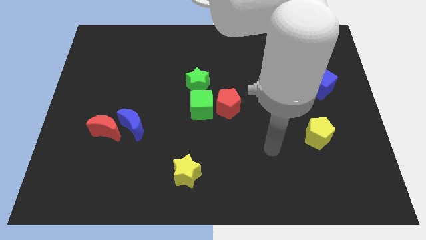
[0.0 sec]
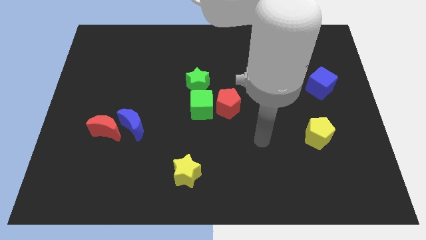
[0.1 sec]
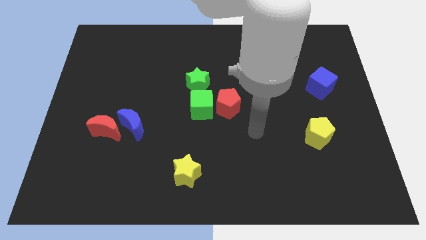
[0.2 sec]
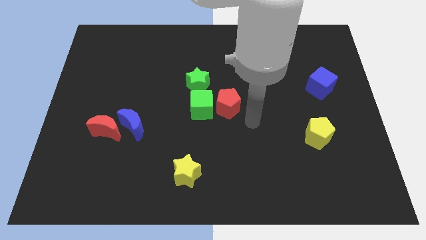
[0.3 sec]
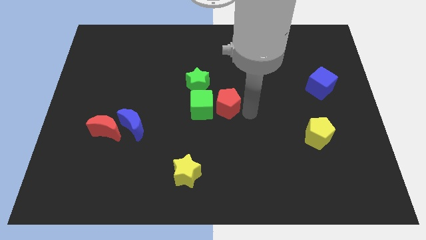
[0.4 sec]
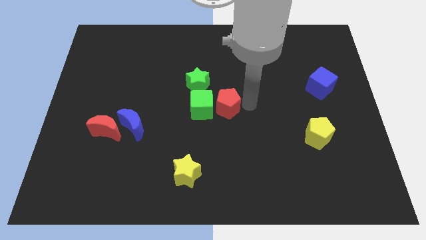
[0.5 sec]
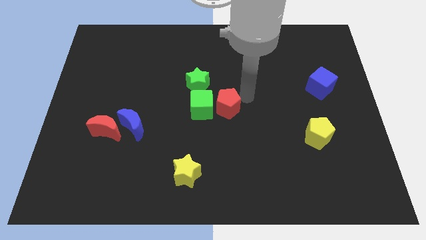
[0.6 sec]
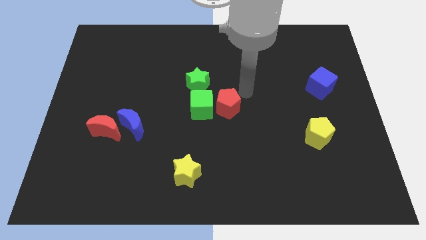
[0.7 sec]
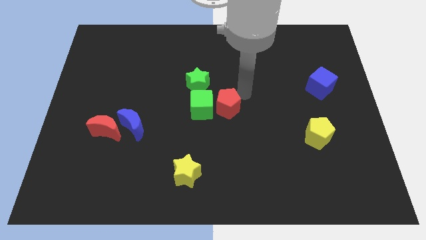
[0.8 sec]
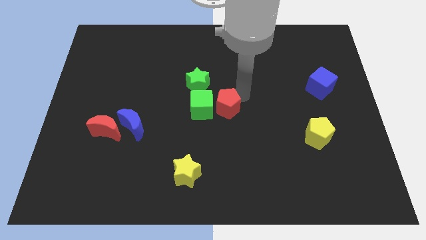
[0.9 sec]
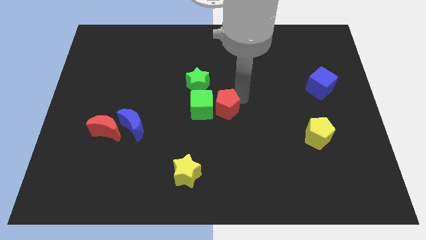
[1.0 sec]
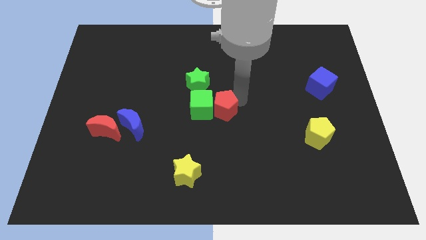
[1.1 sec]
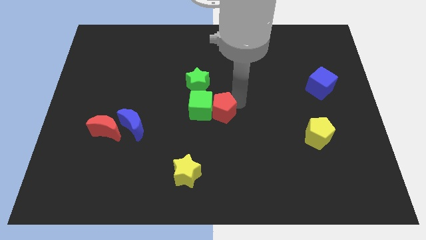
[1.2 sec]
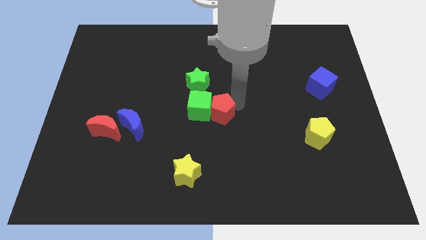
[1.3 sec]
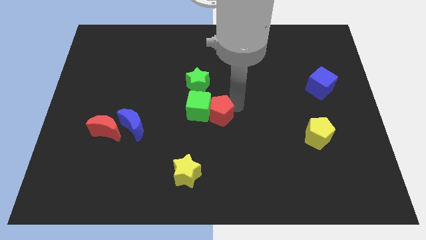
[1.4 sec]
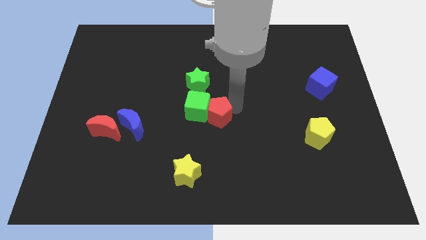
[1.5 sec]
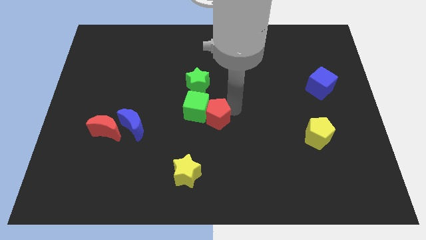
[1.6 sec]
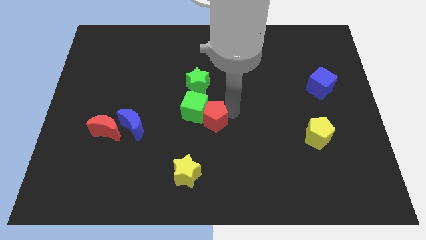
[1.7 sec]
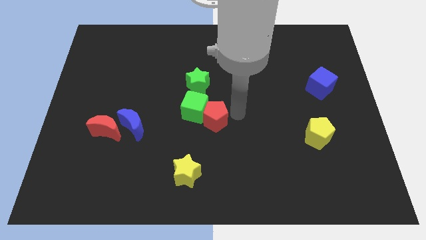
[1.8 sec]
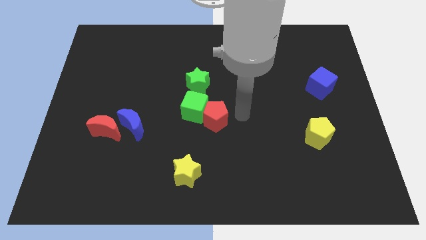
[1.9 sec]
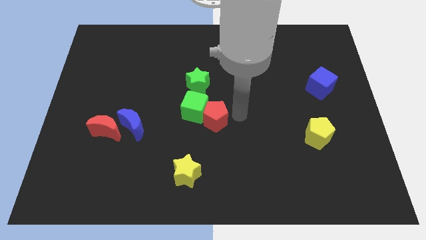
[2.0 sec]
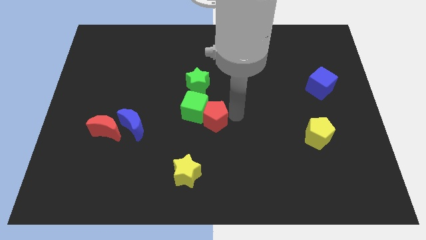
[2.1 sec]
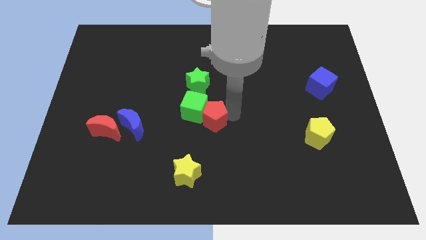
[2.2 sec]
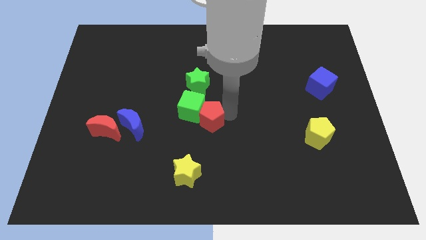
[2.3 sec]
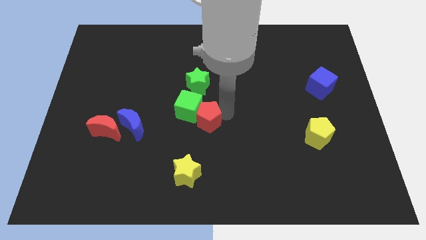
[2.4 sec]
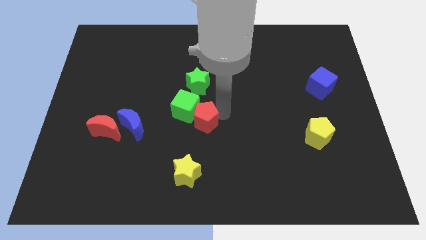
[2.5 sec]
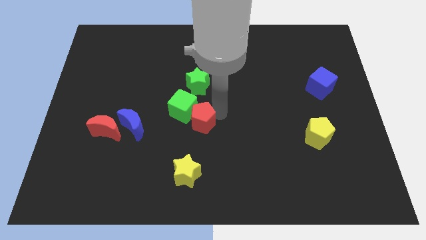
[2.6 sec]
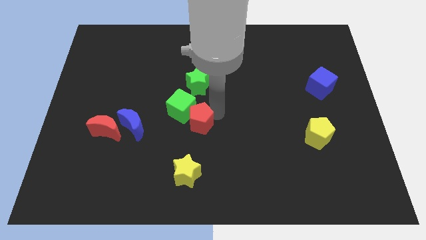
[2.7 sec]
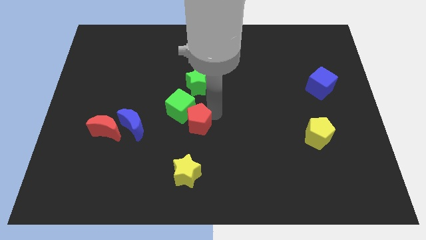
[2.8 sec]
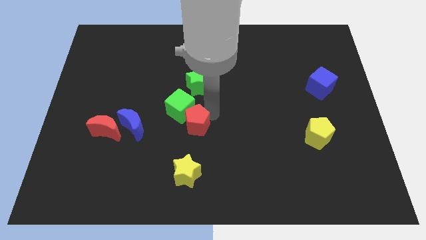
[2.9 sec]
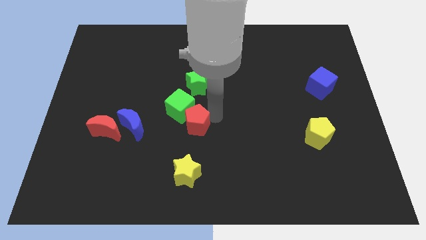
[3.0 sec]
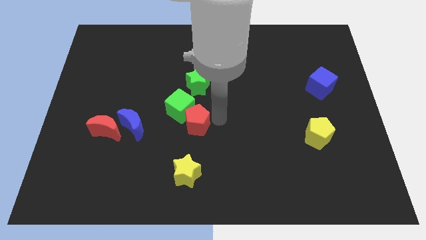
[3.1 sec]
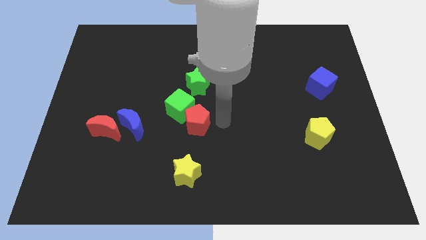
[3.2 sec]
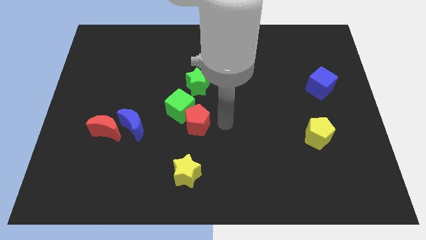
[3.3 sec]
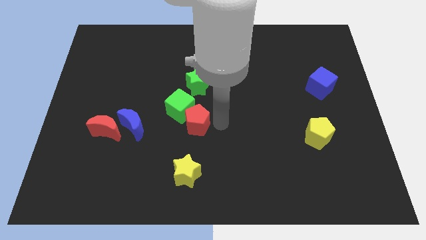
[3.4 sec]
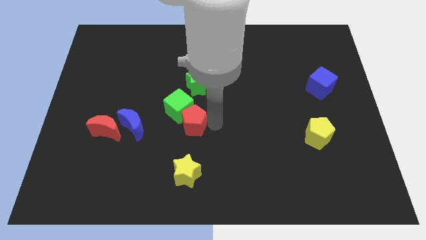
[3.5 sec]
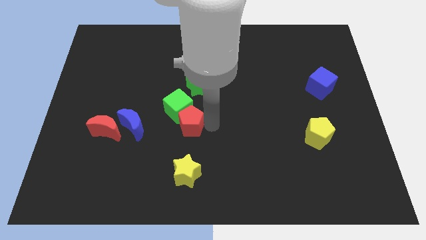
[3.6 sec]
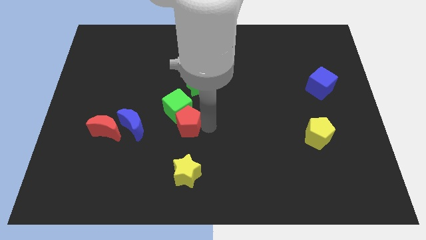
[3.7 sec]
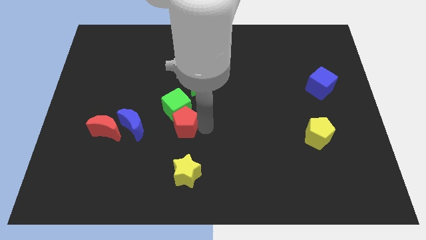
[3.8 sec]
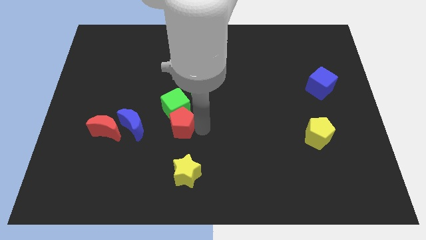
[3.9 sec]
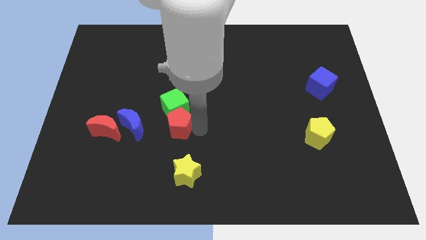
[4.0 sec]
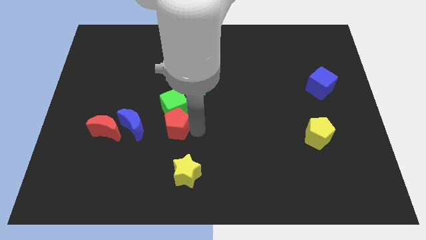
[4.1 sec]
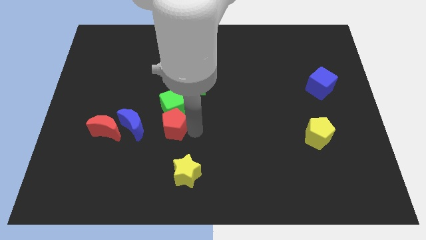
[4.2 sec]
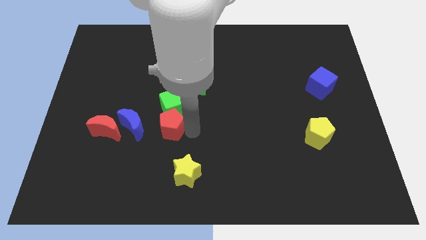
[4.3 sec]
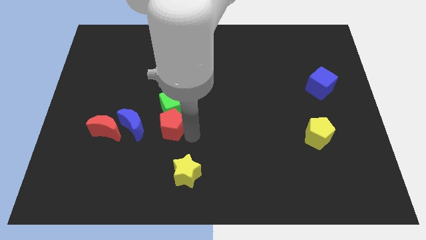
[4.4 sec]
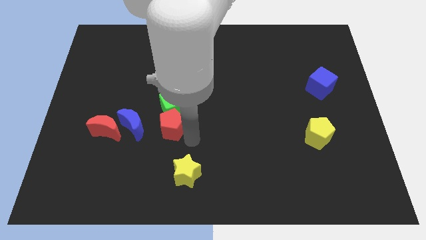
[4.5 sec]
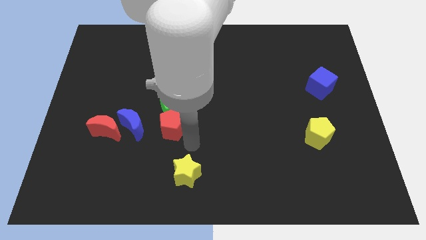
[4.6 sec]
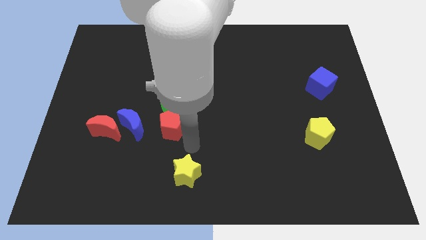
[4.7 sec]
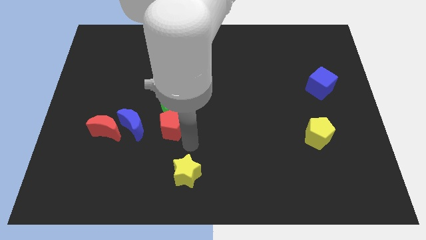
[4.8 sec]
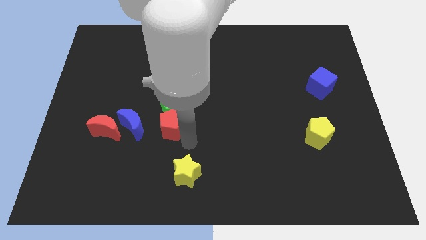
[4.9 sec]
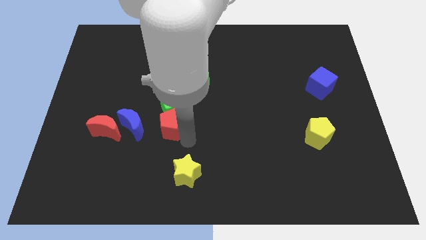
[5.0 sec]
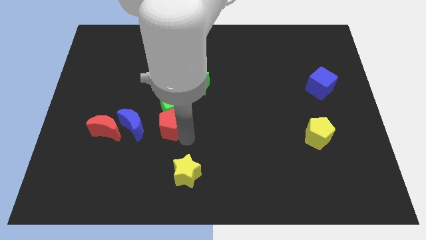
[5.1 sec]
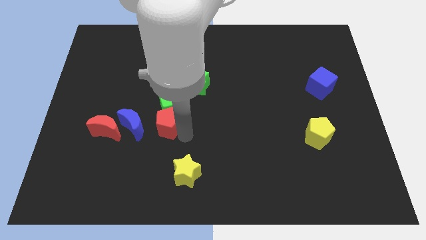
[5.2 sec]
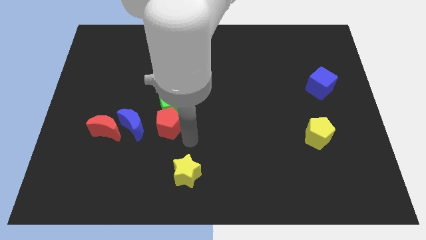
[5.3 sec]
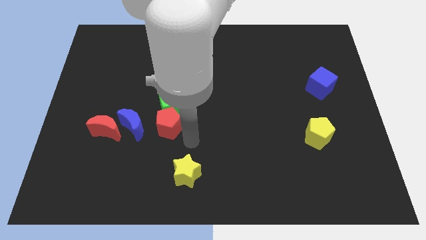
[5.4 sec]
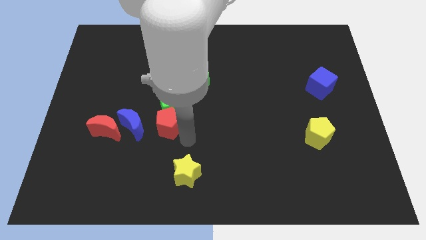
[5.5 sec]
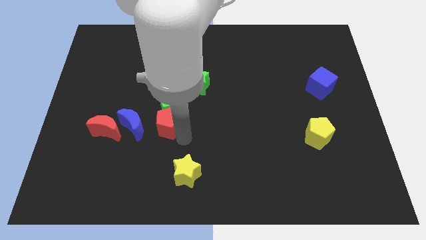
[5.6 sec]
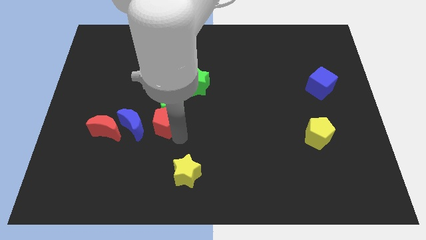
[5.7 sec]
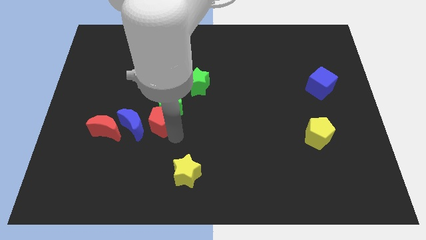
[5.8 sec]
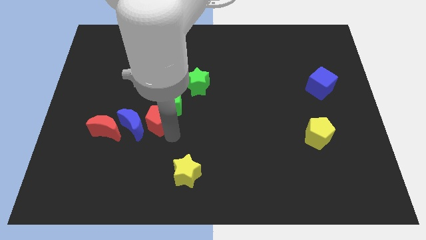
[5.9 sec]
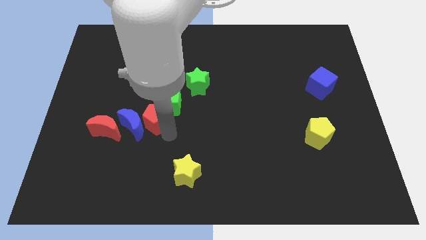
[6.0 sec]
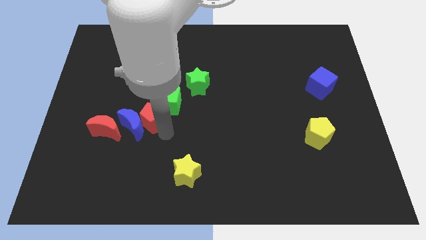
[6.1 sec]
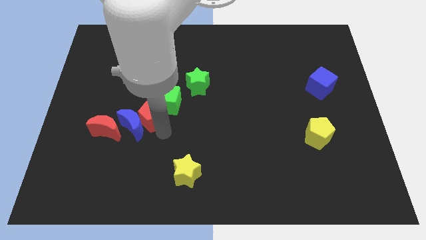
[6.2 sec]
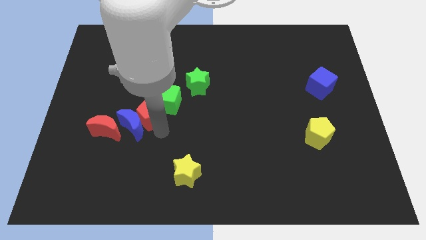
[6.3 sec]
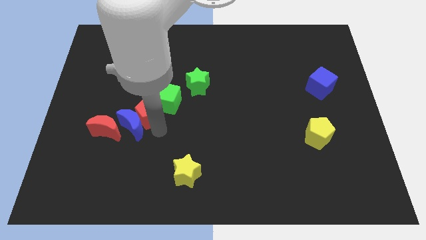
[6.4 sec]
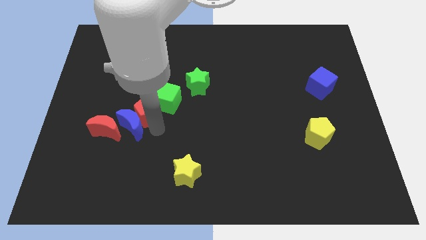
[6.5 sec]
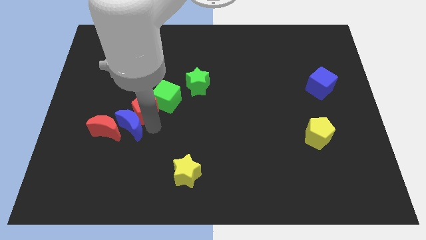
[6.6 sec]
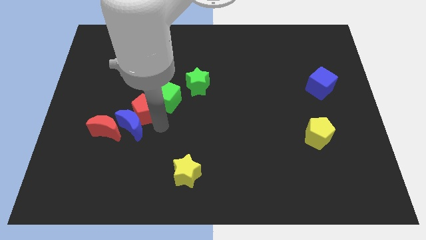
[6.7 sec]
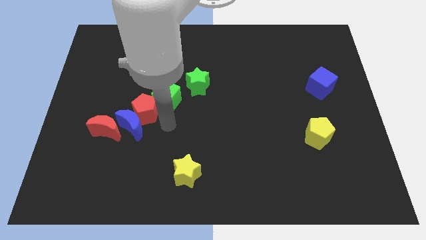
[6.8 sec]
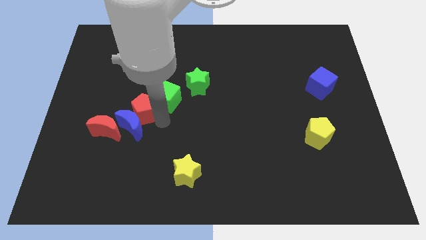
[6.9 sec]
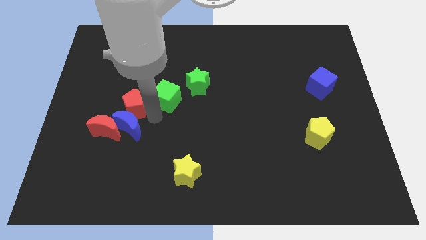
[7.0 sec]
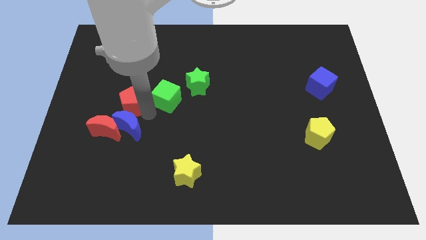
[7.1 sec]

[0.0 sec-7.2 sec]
push the red pentagon to the top side of the red moon
